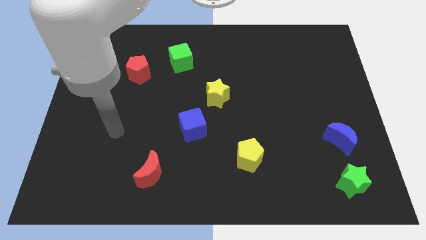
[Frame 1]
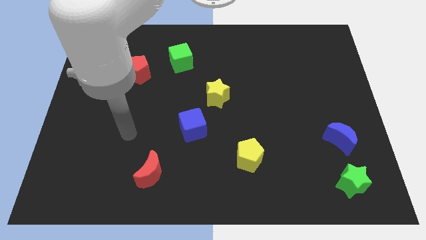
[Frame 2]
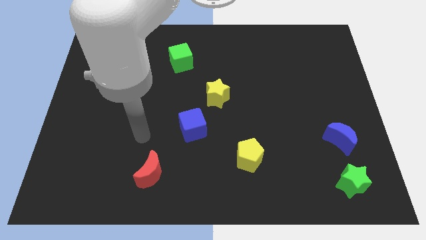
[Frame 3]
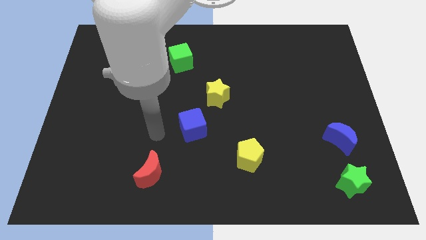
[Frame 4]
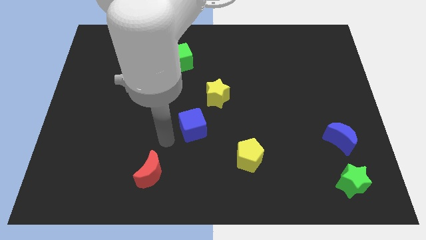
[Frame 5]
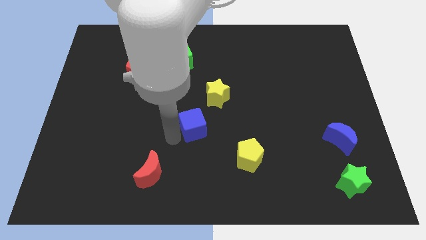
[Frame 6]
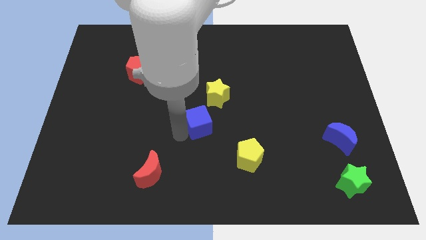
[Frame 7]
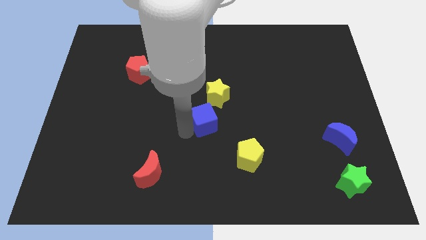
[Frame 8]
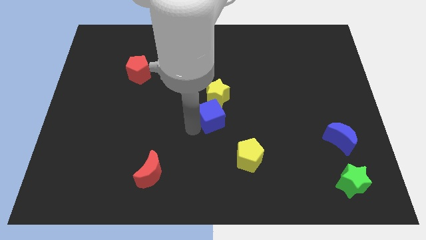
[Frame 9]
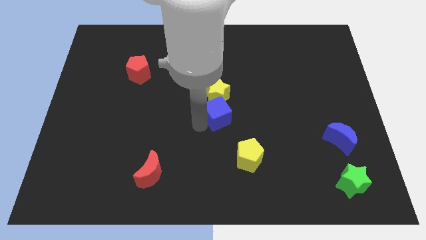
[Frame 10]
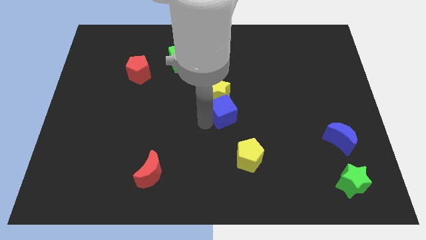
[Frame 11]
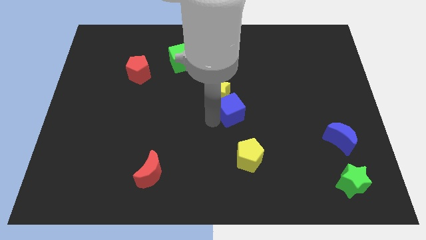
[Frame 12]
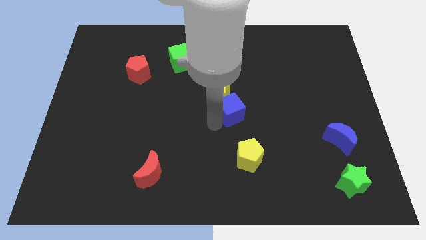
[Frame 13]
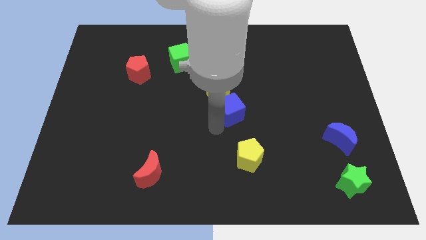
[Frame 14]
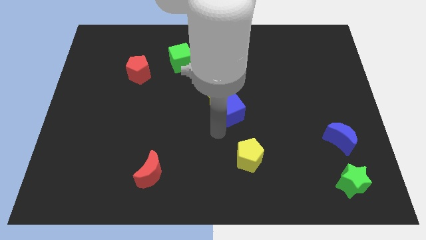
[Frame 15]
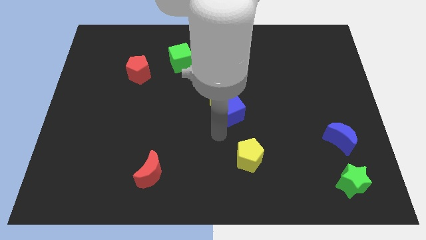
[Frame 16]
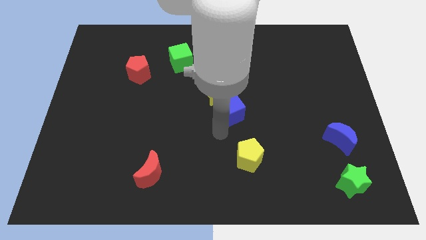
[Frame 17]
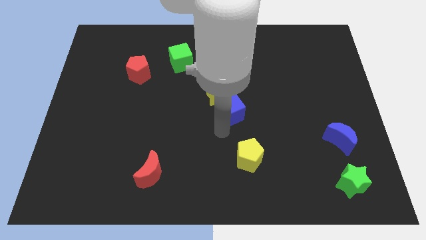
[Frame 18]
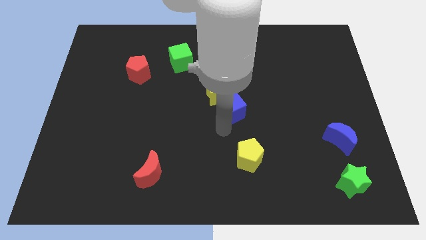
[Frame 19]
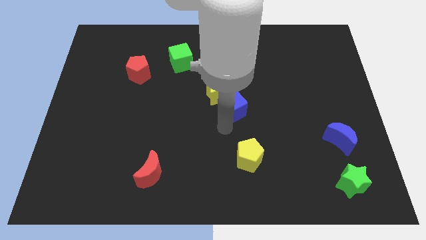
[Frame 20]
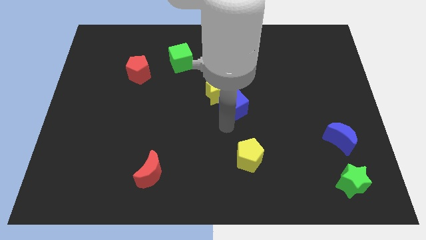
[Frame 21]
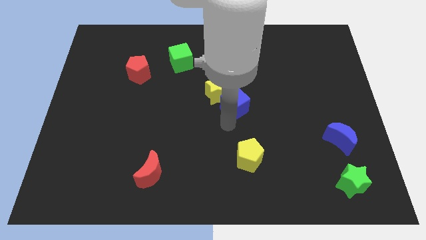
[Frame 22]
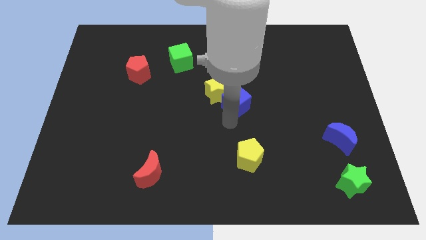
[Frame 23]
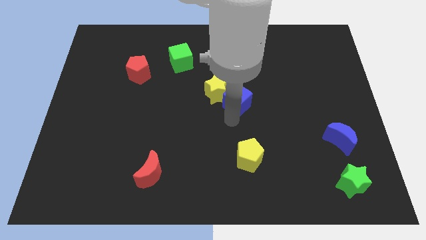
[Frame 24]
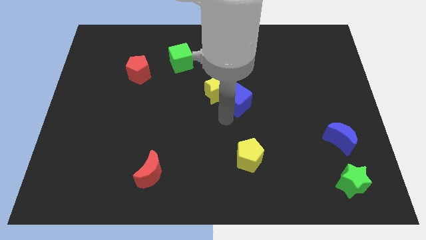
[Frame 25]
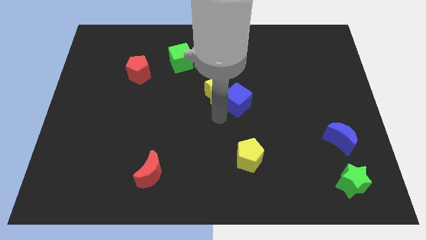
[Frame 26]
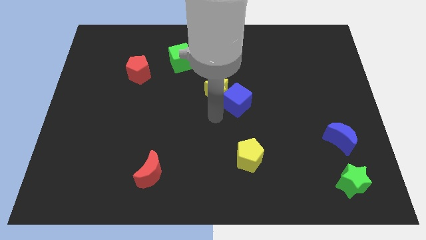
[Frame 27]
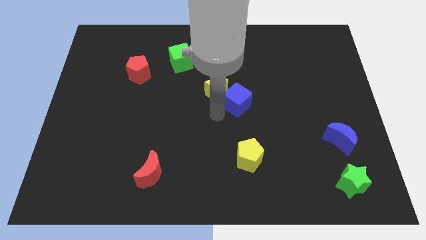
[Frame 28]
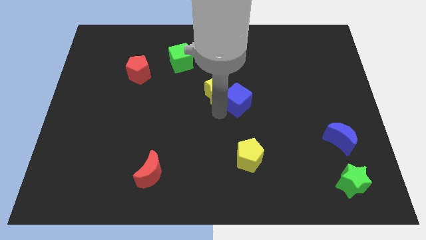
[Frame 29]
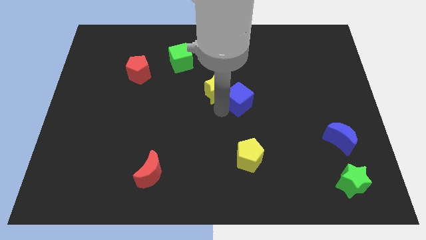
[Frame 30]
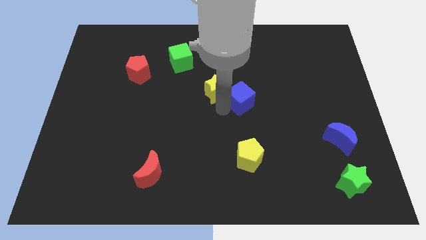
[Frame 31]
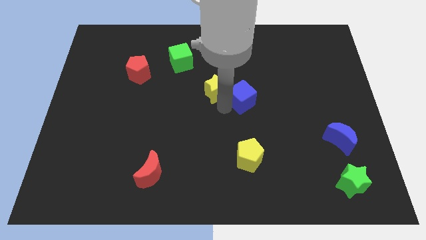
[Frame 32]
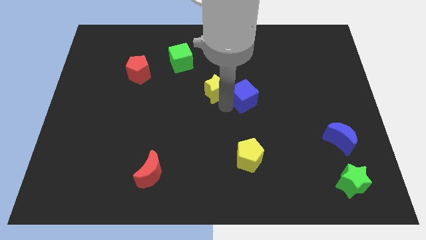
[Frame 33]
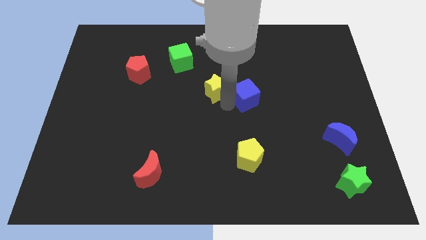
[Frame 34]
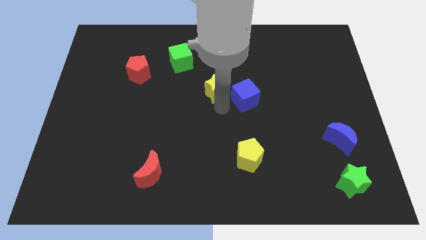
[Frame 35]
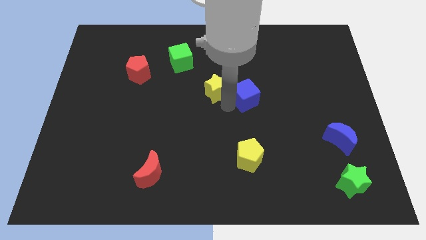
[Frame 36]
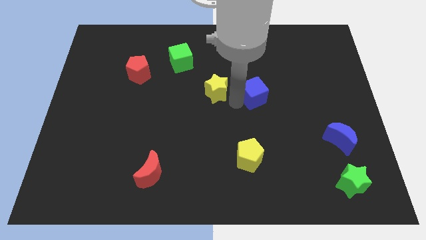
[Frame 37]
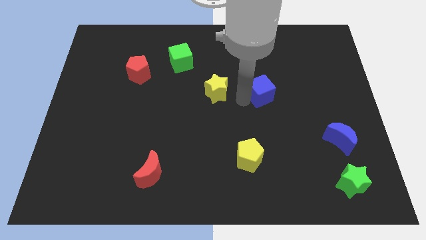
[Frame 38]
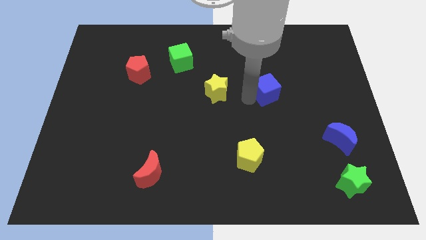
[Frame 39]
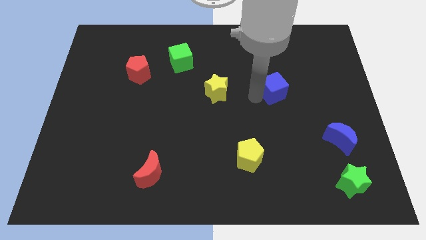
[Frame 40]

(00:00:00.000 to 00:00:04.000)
push the blue cube up and right diagonally

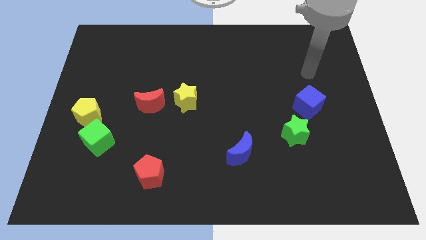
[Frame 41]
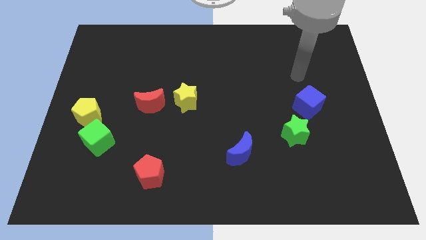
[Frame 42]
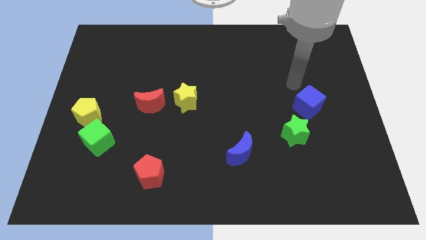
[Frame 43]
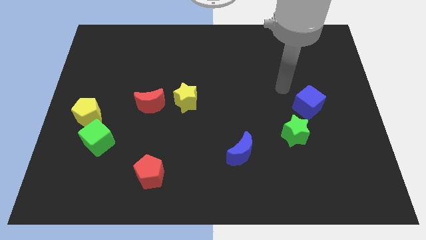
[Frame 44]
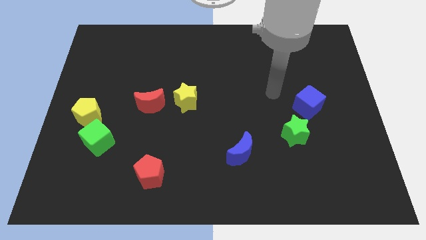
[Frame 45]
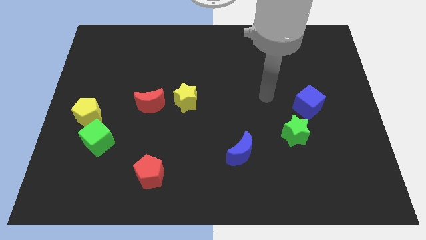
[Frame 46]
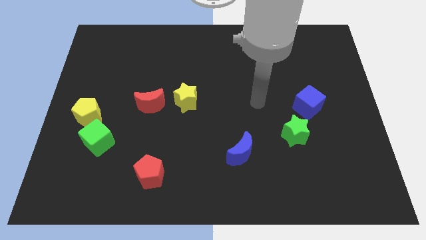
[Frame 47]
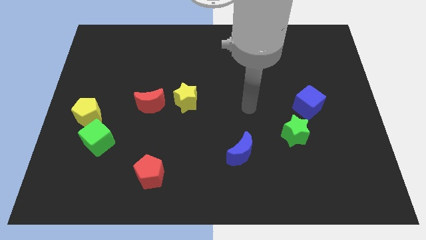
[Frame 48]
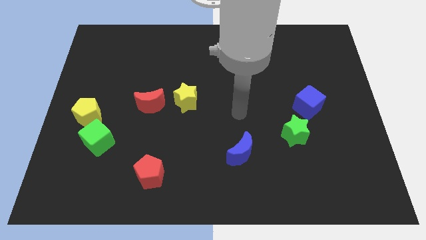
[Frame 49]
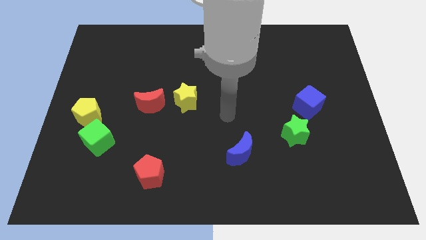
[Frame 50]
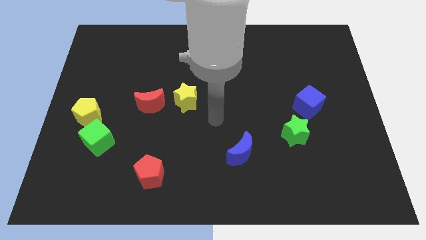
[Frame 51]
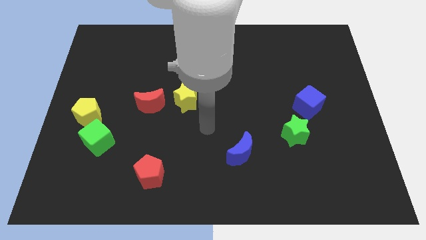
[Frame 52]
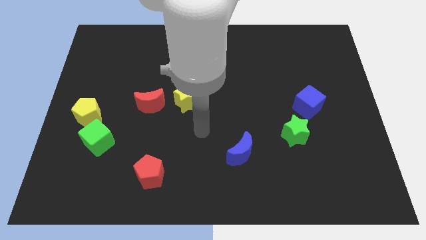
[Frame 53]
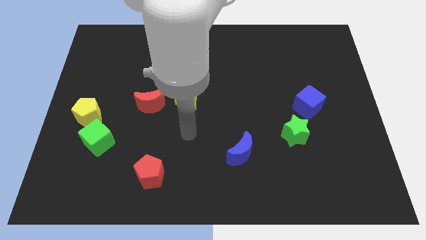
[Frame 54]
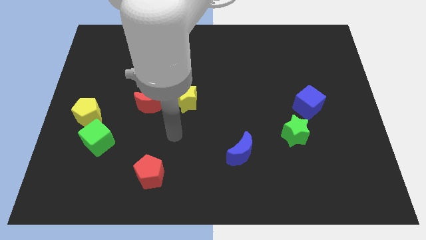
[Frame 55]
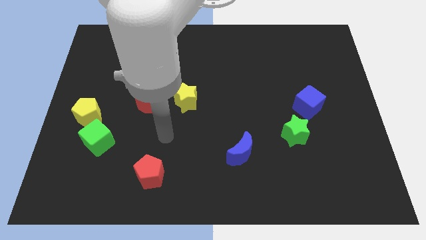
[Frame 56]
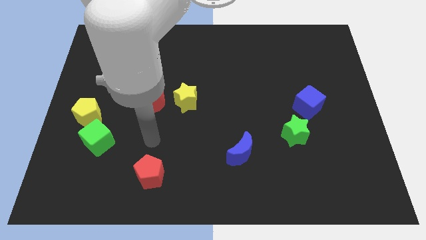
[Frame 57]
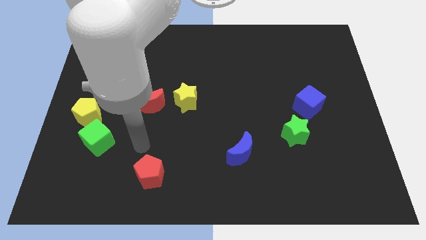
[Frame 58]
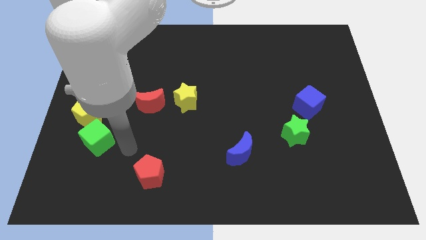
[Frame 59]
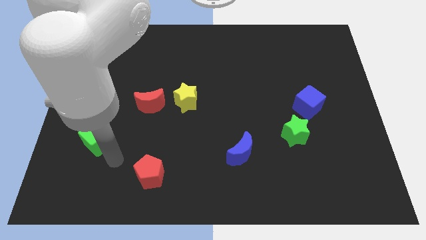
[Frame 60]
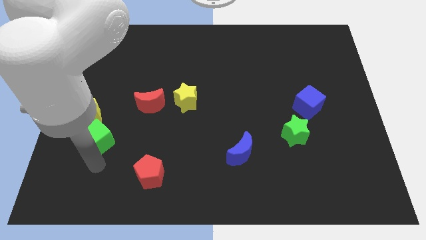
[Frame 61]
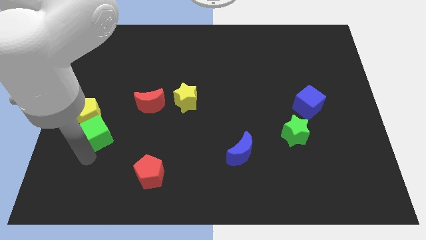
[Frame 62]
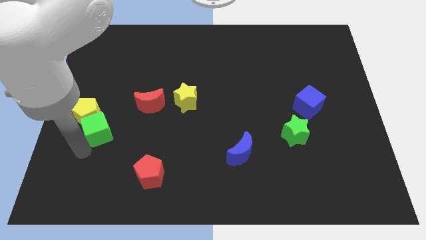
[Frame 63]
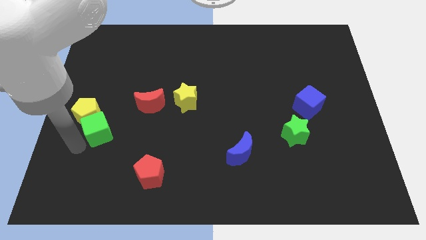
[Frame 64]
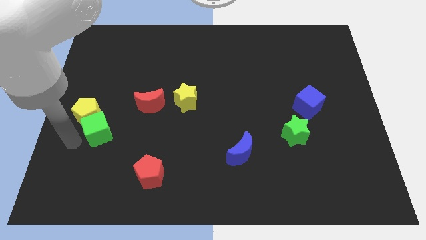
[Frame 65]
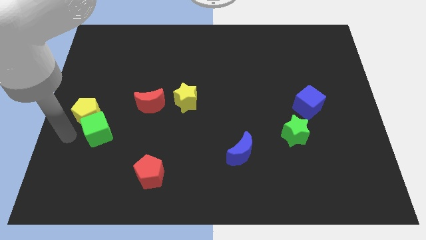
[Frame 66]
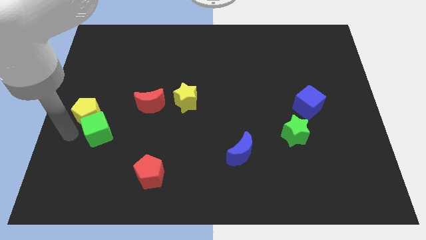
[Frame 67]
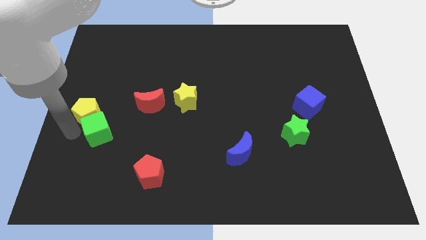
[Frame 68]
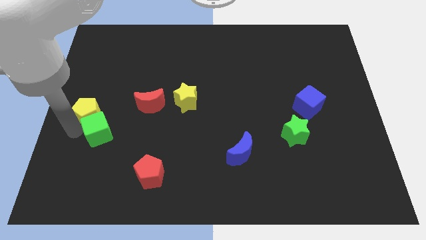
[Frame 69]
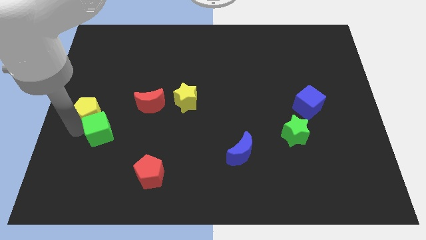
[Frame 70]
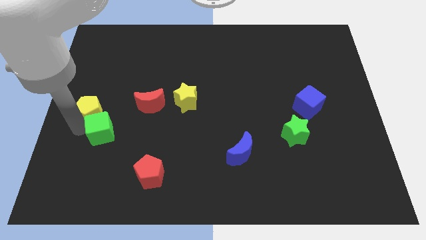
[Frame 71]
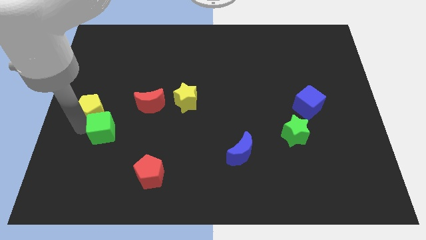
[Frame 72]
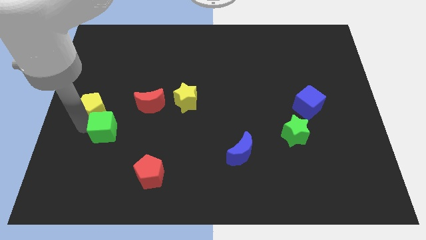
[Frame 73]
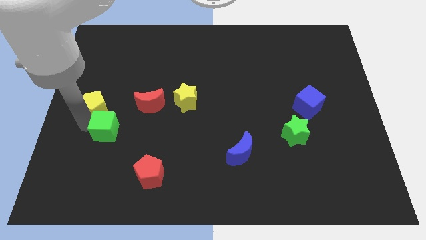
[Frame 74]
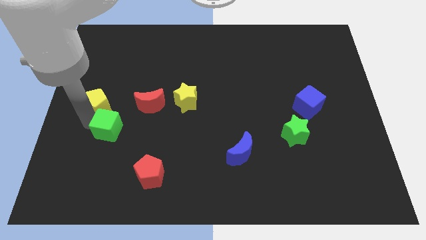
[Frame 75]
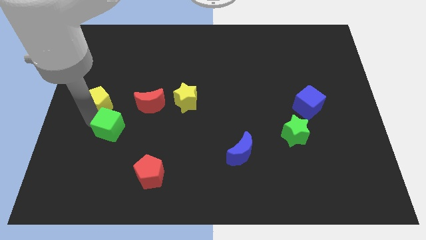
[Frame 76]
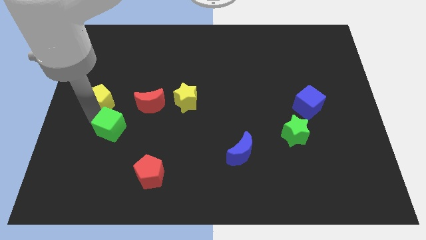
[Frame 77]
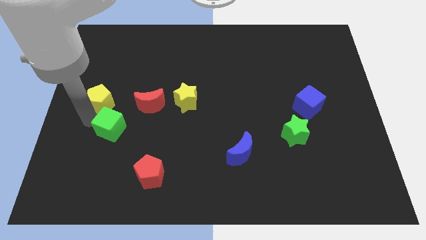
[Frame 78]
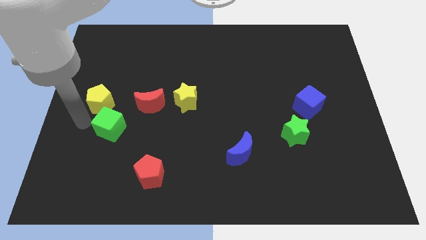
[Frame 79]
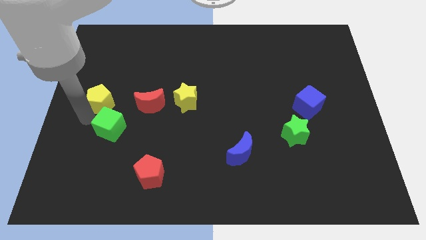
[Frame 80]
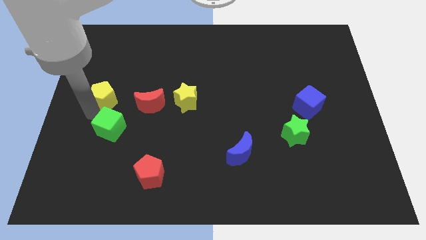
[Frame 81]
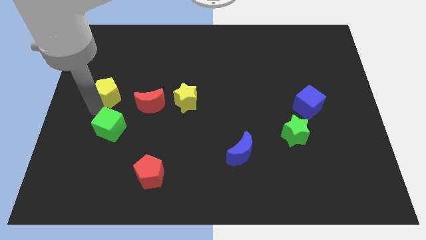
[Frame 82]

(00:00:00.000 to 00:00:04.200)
move the yellow pentagon a little up and then right
